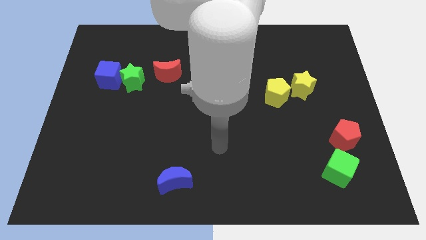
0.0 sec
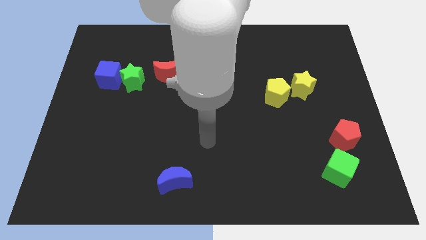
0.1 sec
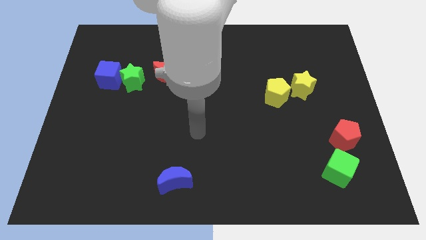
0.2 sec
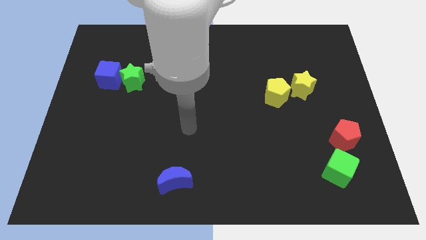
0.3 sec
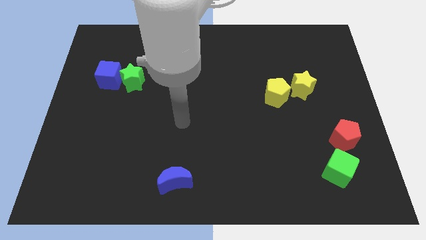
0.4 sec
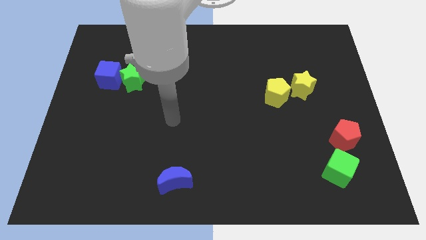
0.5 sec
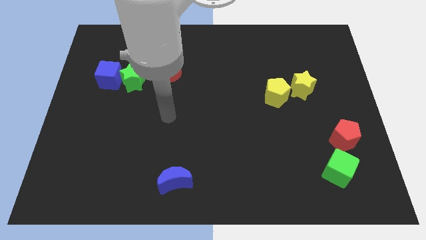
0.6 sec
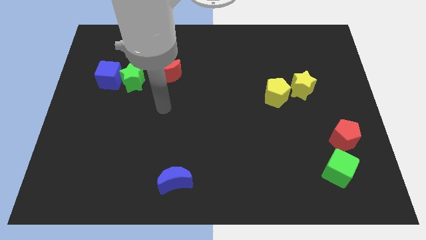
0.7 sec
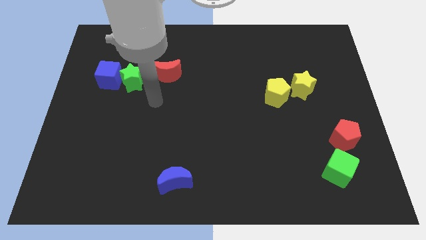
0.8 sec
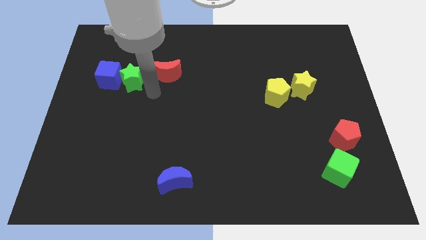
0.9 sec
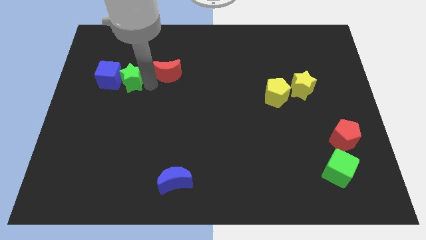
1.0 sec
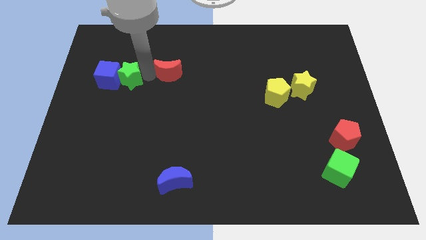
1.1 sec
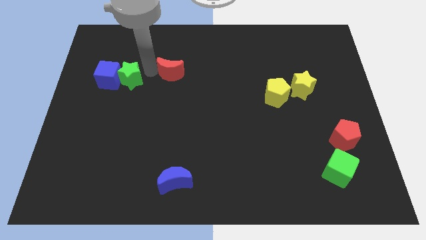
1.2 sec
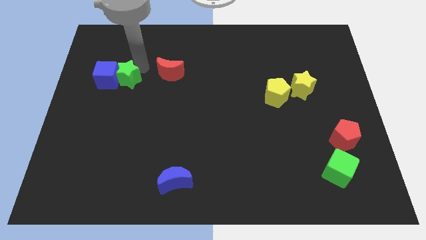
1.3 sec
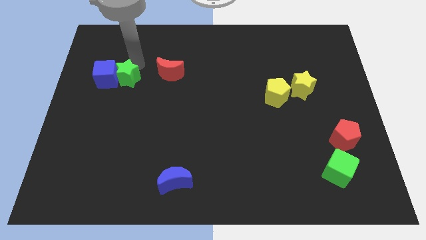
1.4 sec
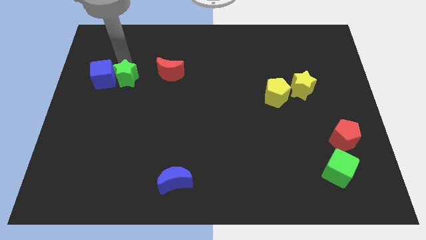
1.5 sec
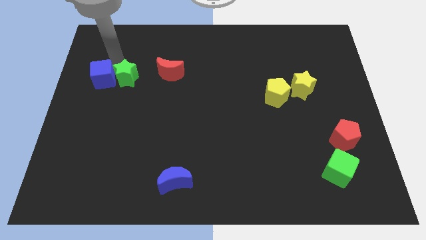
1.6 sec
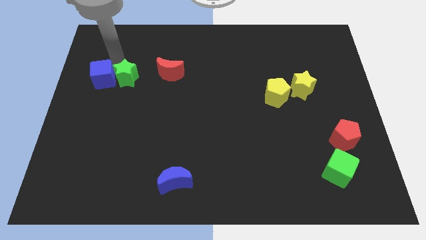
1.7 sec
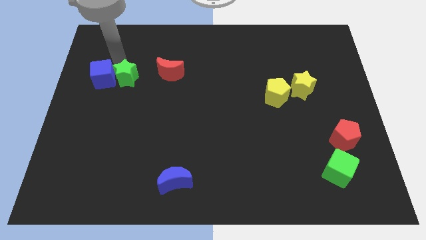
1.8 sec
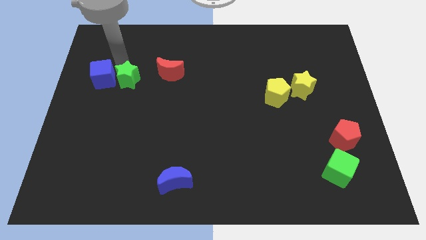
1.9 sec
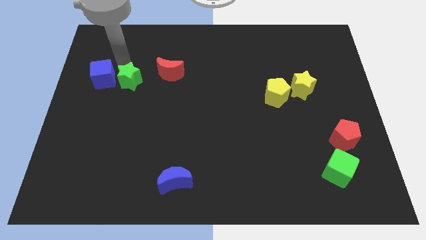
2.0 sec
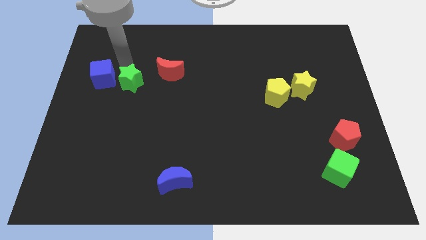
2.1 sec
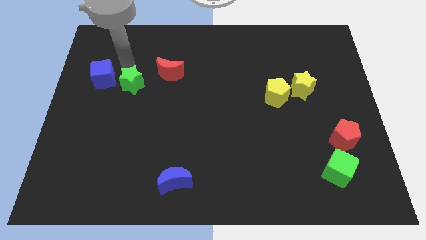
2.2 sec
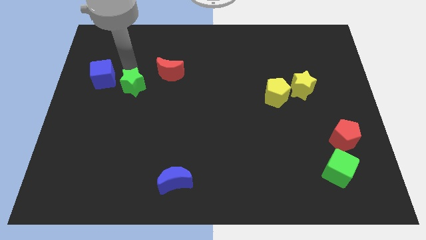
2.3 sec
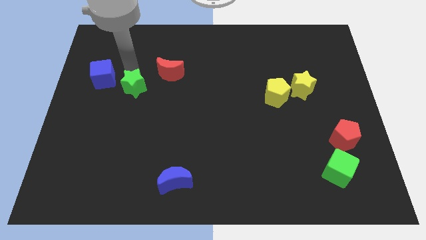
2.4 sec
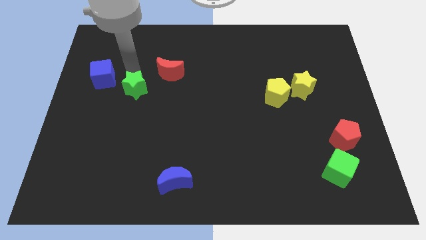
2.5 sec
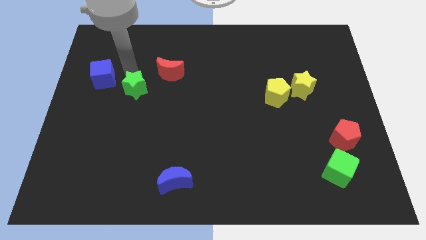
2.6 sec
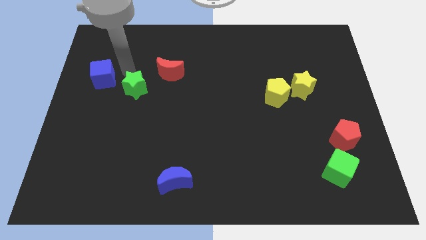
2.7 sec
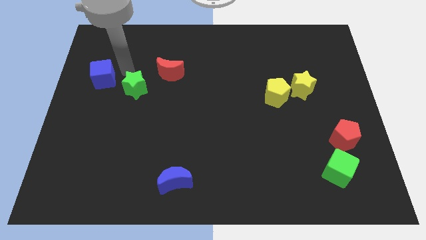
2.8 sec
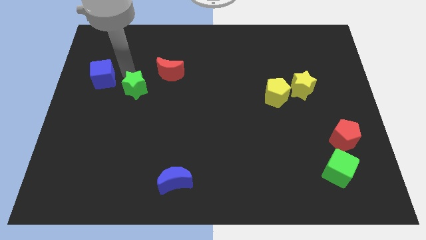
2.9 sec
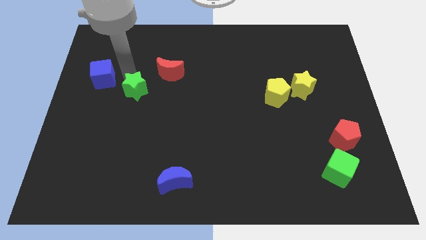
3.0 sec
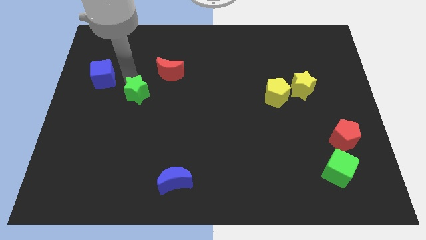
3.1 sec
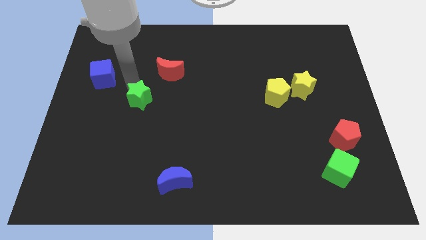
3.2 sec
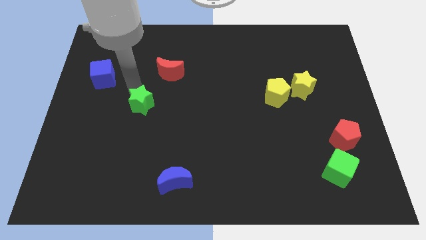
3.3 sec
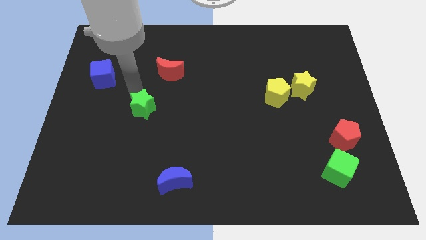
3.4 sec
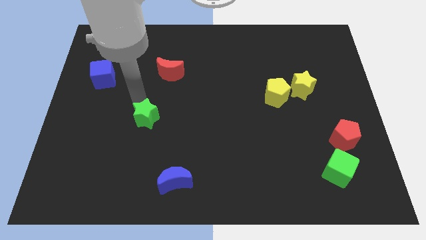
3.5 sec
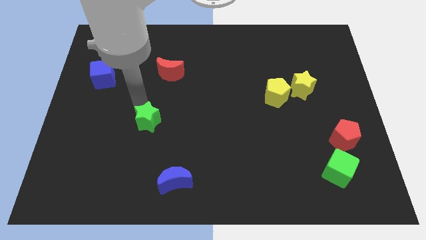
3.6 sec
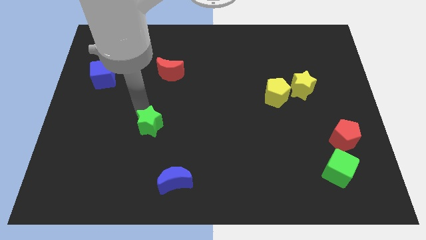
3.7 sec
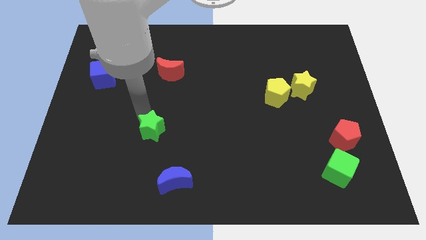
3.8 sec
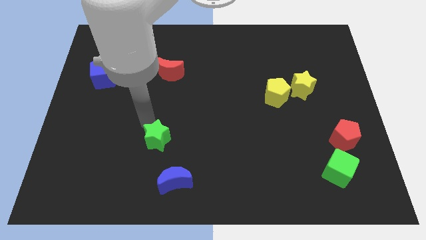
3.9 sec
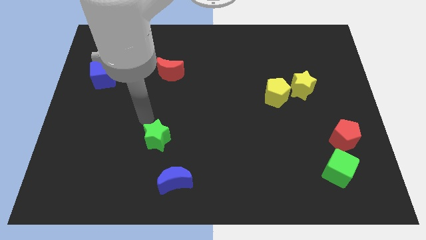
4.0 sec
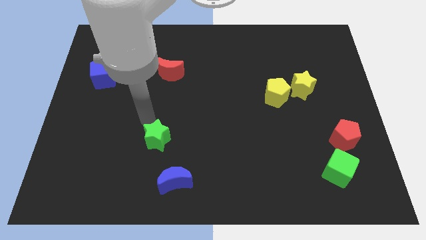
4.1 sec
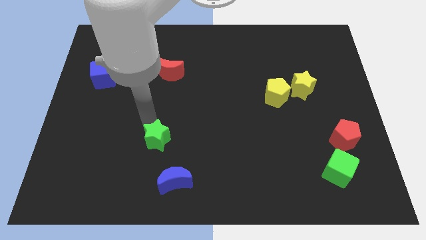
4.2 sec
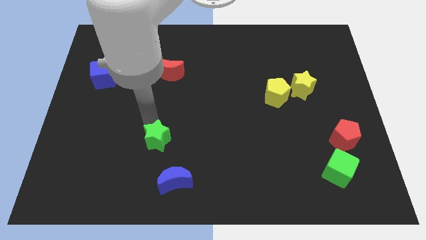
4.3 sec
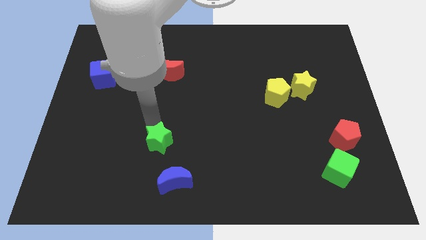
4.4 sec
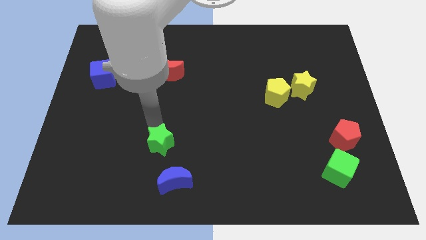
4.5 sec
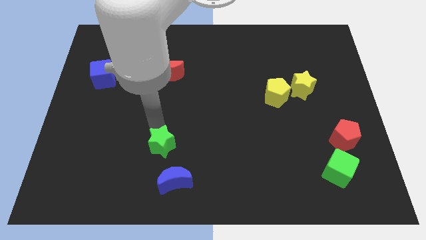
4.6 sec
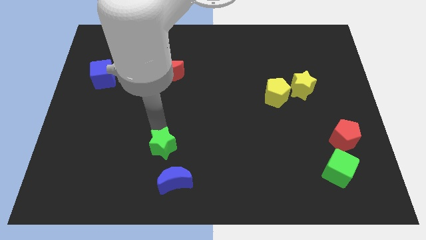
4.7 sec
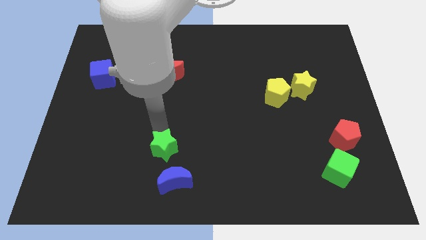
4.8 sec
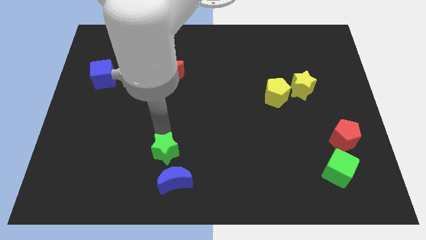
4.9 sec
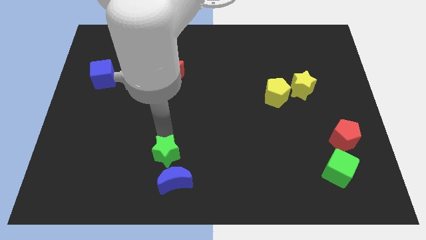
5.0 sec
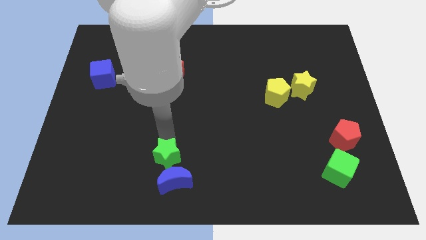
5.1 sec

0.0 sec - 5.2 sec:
put the green star next to the blue moon

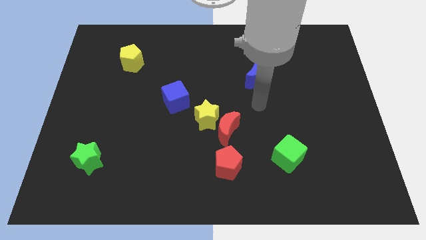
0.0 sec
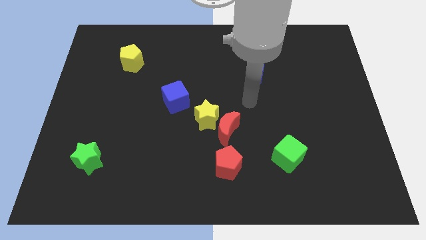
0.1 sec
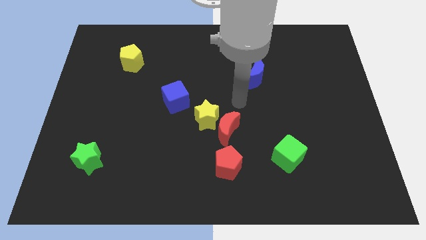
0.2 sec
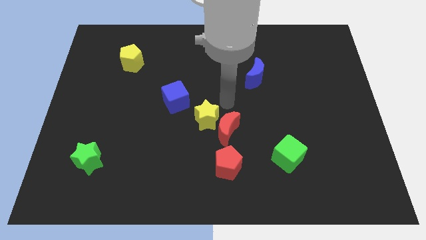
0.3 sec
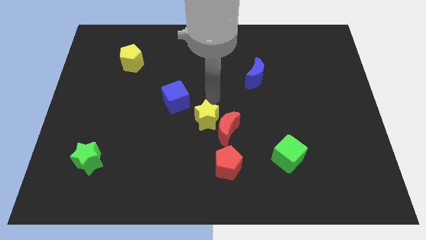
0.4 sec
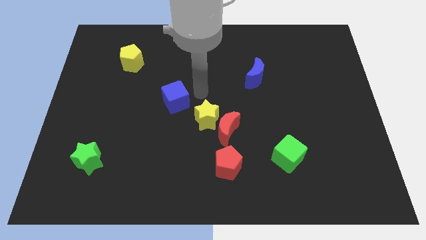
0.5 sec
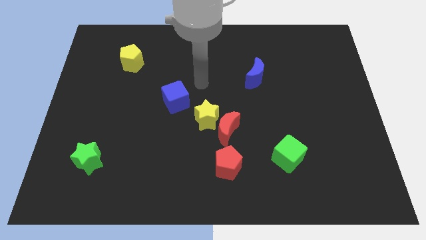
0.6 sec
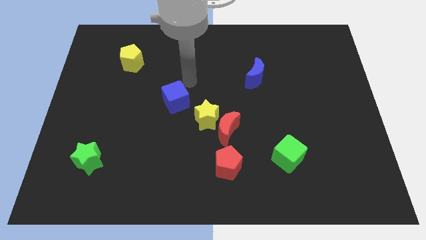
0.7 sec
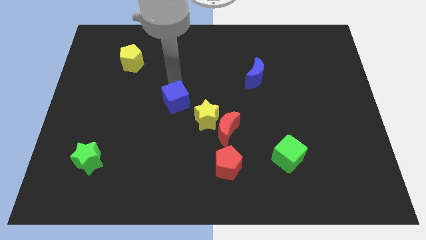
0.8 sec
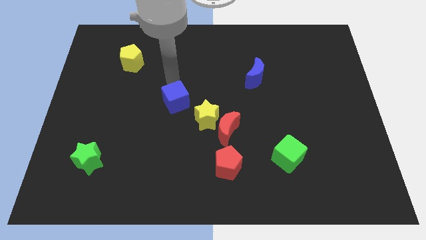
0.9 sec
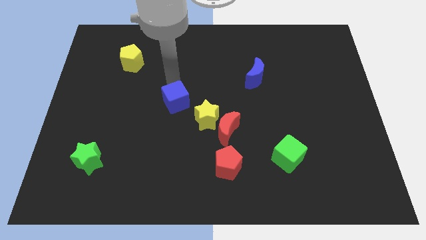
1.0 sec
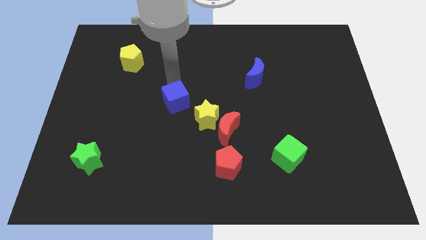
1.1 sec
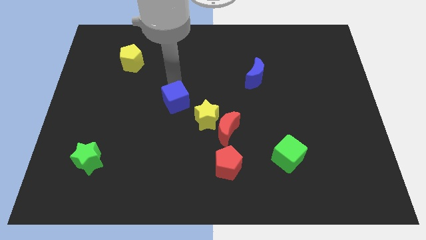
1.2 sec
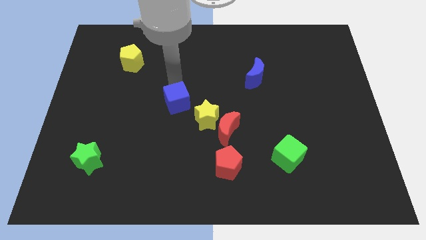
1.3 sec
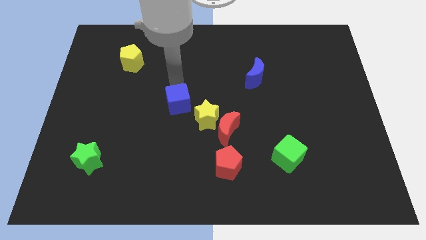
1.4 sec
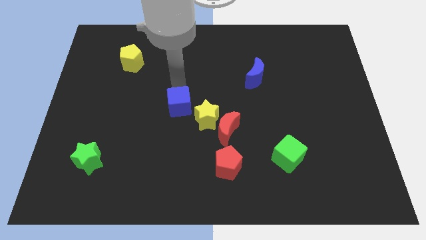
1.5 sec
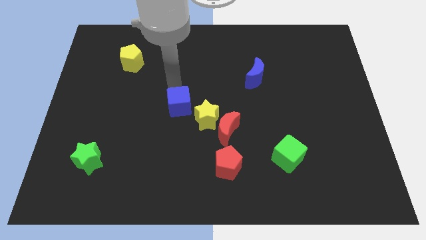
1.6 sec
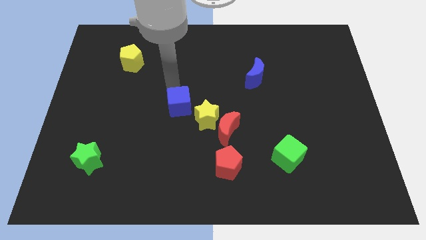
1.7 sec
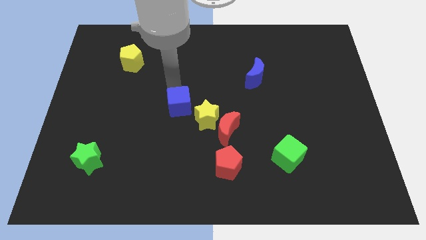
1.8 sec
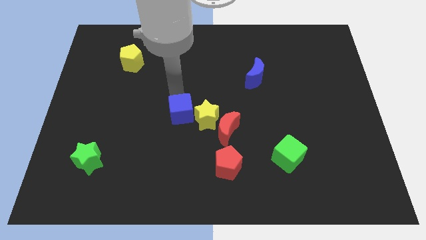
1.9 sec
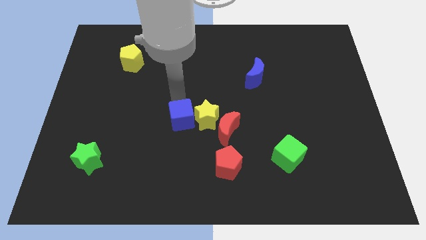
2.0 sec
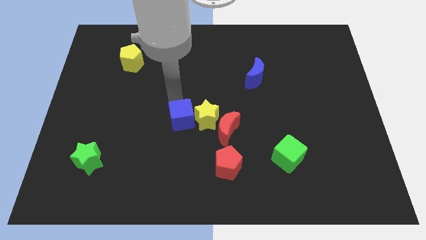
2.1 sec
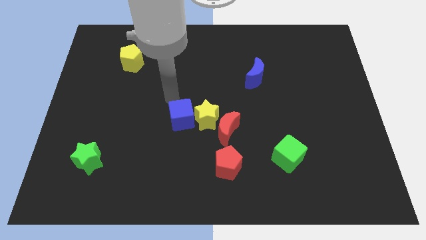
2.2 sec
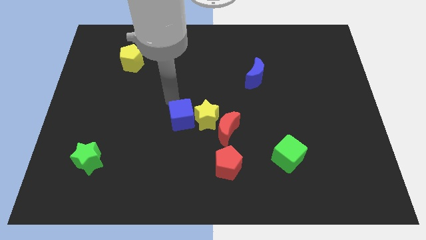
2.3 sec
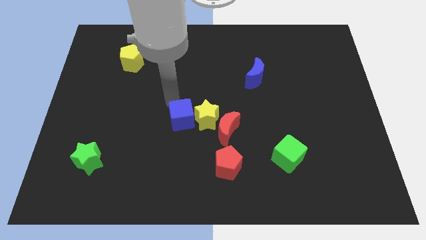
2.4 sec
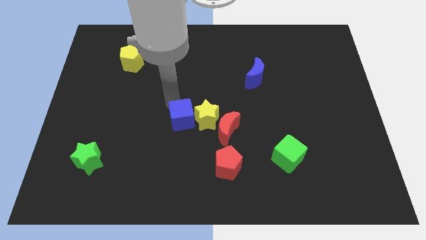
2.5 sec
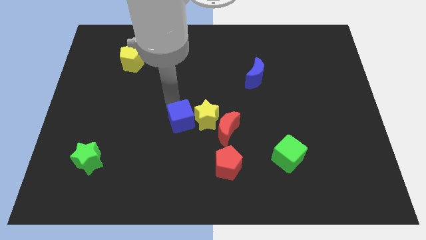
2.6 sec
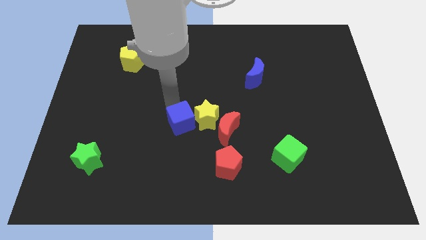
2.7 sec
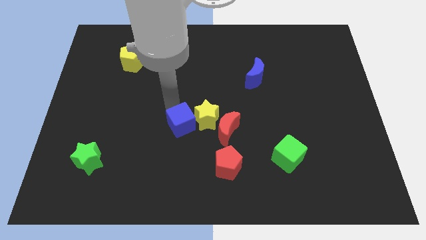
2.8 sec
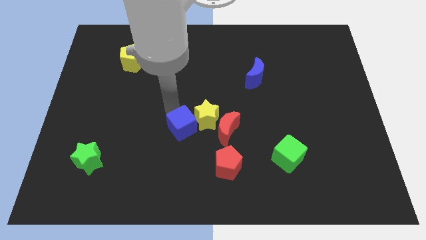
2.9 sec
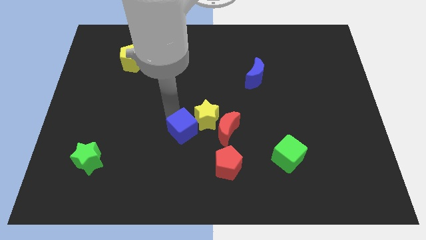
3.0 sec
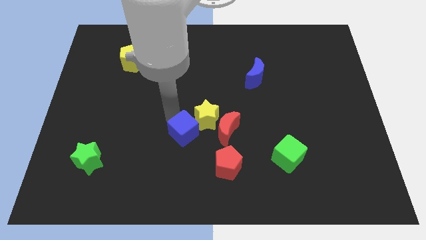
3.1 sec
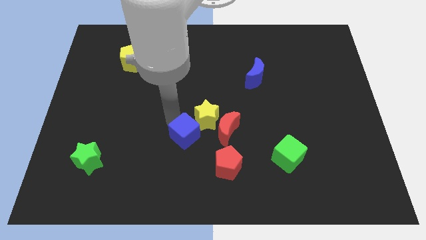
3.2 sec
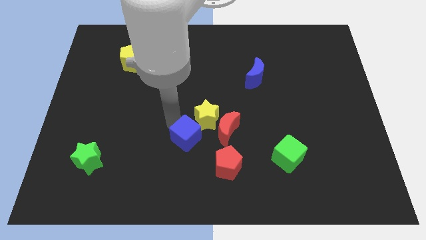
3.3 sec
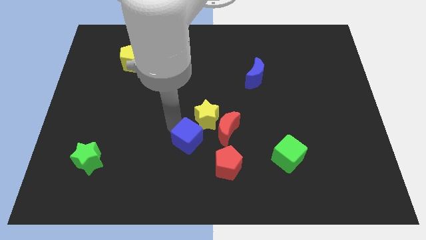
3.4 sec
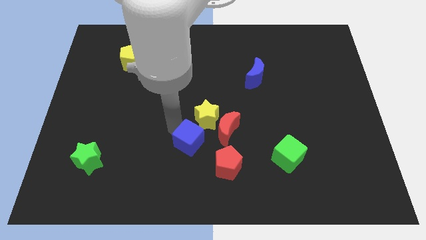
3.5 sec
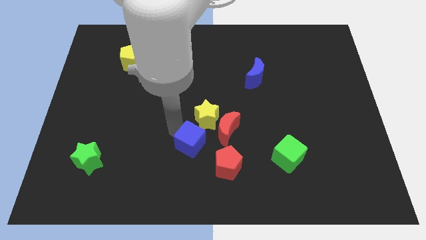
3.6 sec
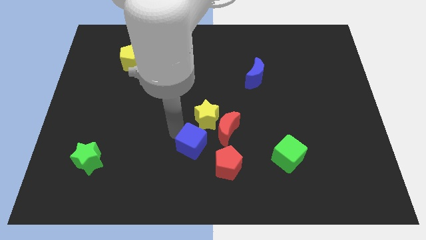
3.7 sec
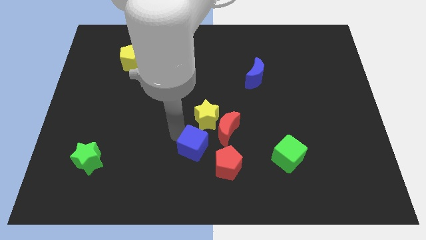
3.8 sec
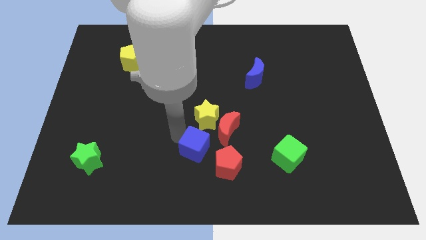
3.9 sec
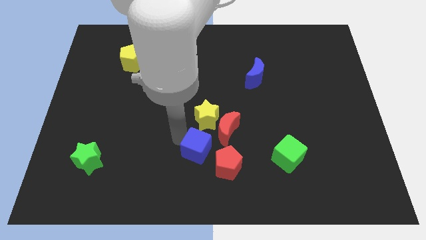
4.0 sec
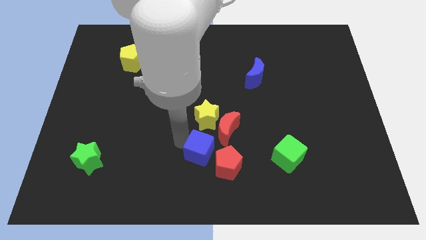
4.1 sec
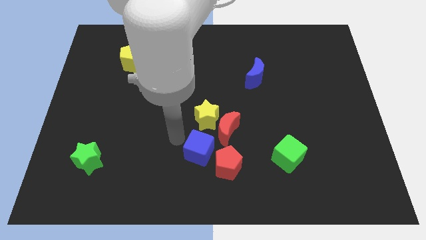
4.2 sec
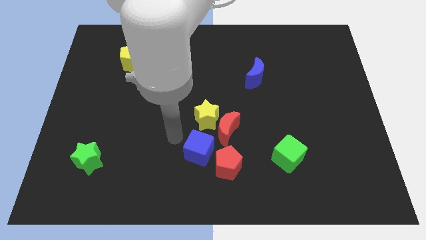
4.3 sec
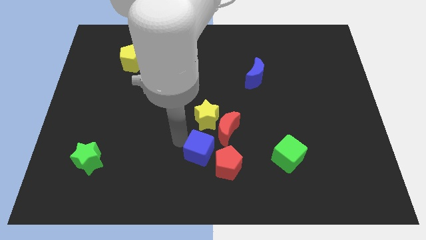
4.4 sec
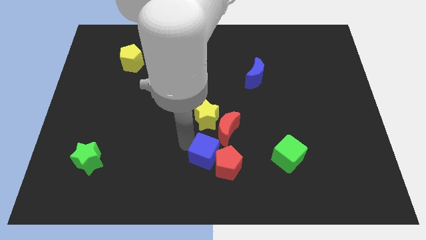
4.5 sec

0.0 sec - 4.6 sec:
put the blue cube close to the red pentagon
